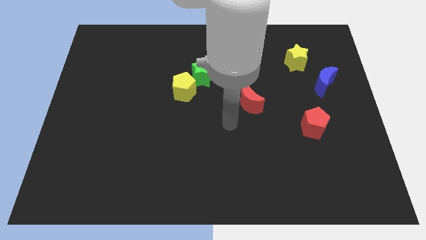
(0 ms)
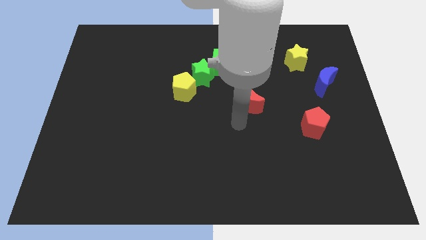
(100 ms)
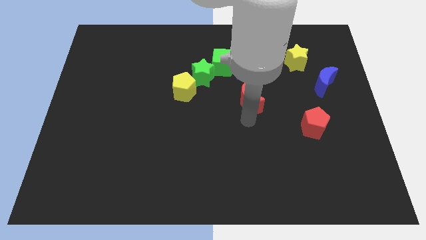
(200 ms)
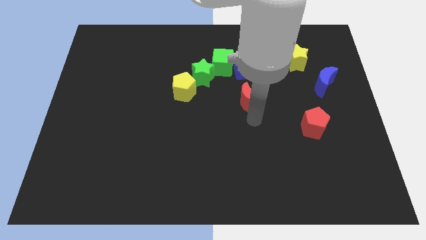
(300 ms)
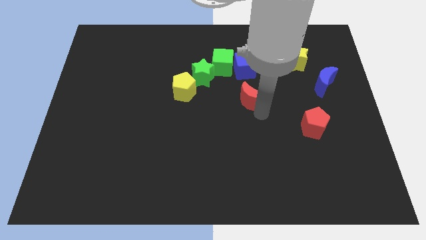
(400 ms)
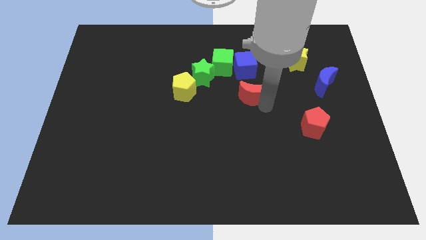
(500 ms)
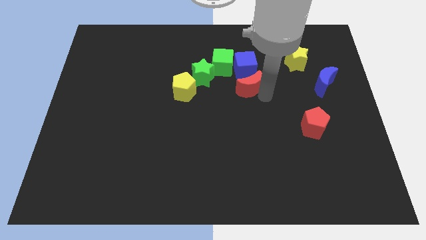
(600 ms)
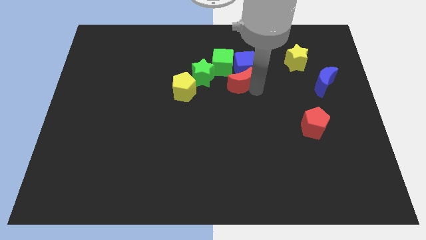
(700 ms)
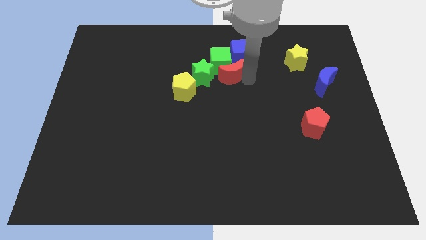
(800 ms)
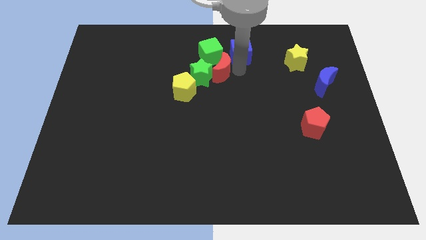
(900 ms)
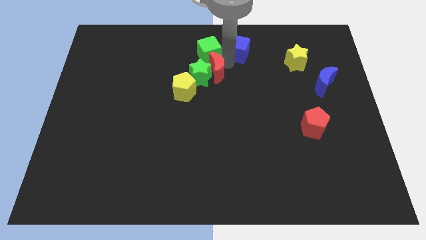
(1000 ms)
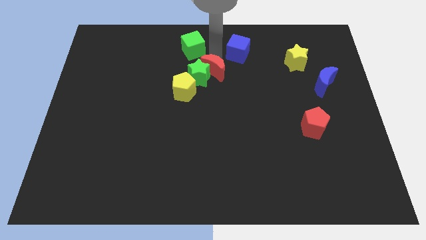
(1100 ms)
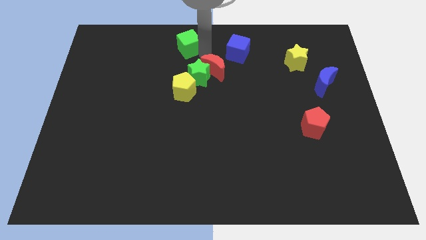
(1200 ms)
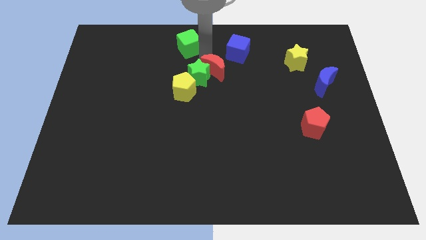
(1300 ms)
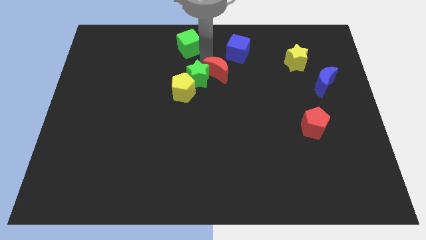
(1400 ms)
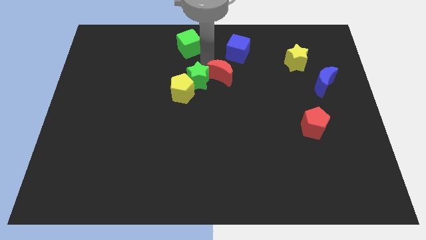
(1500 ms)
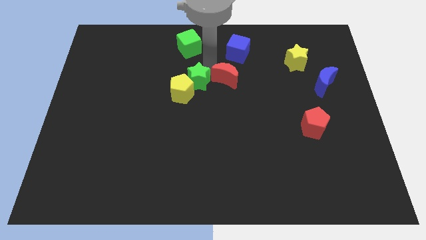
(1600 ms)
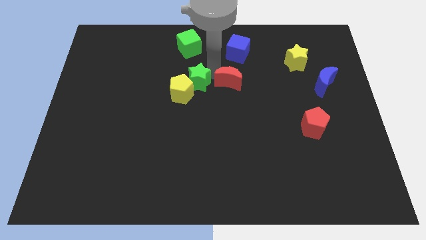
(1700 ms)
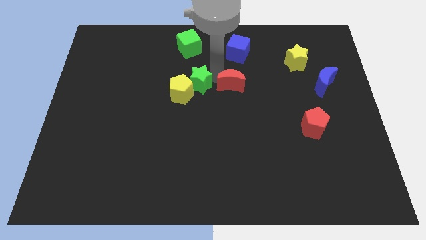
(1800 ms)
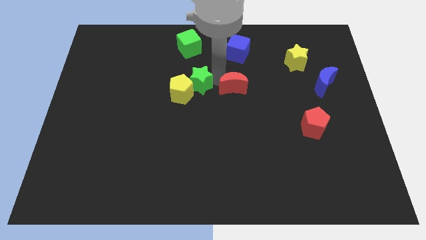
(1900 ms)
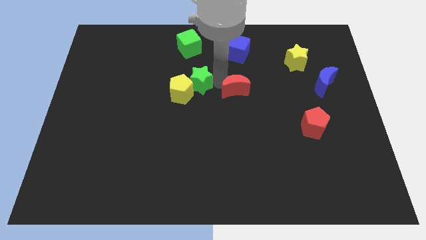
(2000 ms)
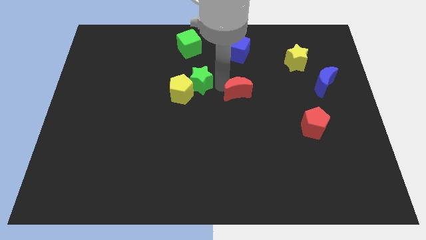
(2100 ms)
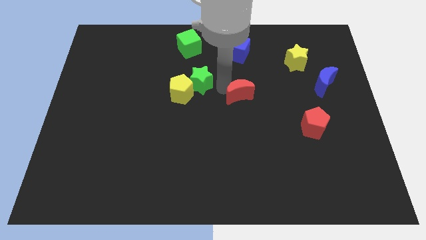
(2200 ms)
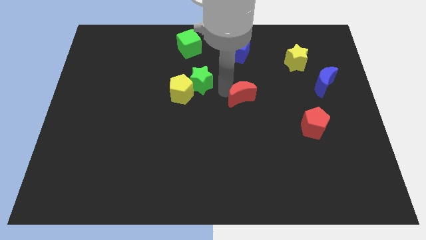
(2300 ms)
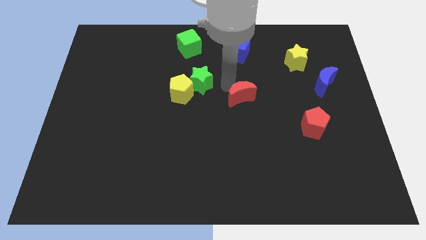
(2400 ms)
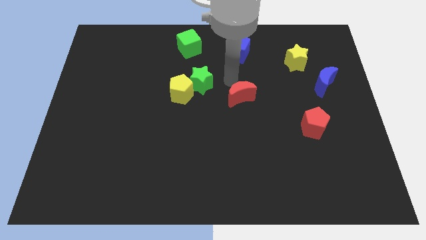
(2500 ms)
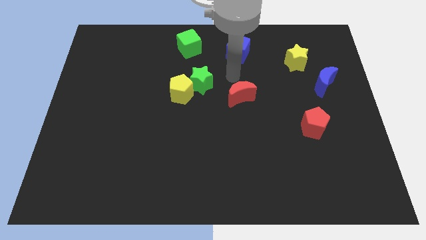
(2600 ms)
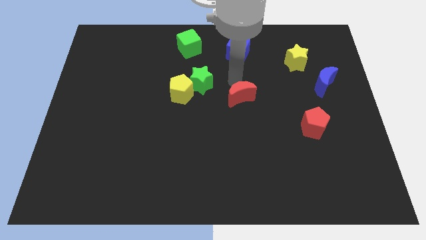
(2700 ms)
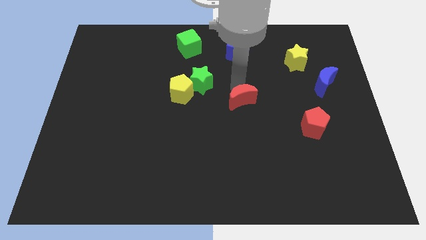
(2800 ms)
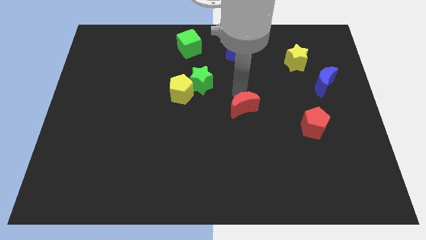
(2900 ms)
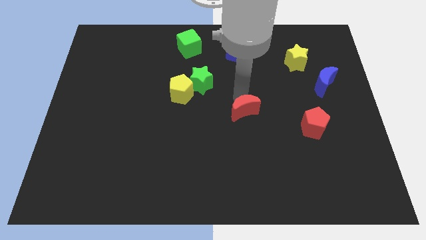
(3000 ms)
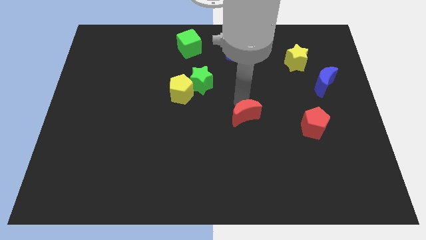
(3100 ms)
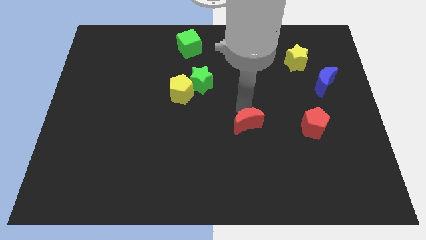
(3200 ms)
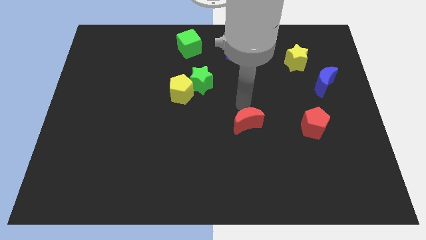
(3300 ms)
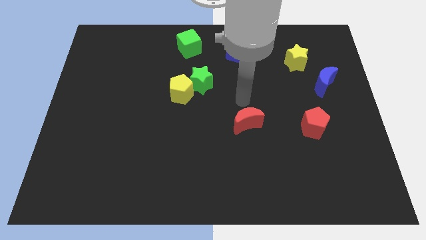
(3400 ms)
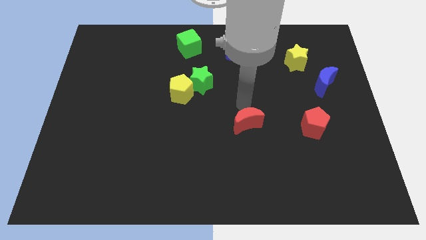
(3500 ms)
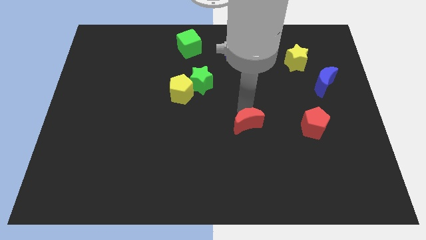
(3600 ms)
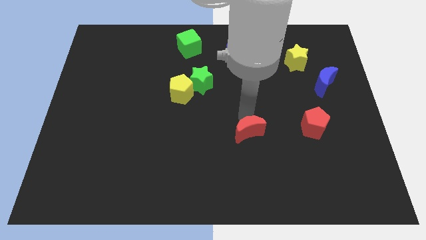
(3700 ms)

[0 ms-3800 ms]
slide the red moon a little down

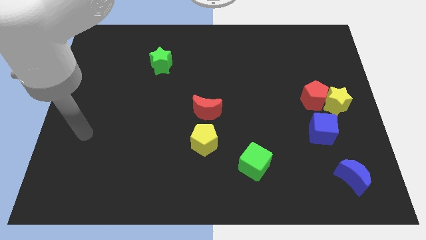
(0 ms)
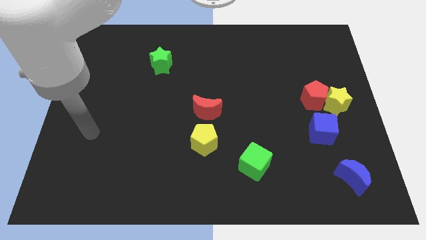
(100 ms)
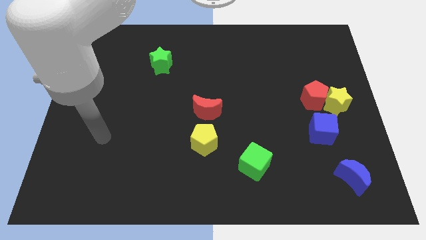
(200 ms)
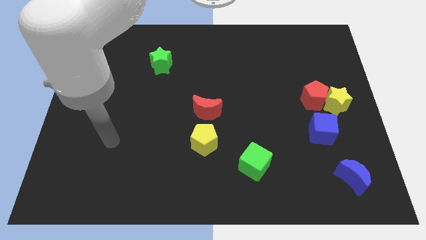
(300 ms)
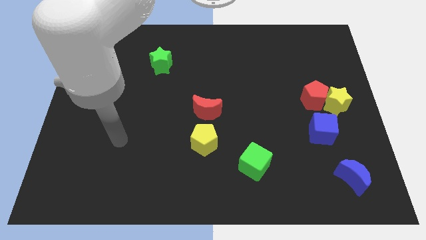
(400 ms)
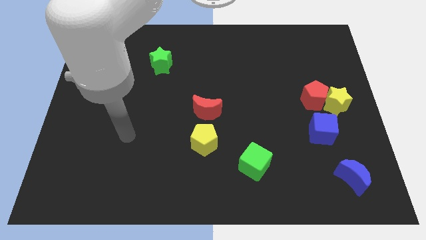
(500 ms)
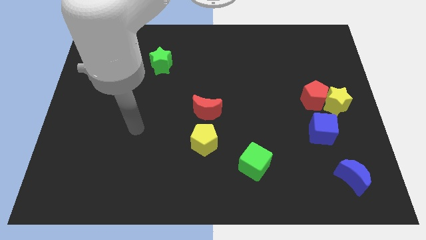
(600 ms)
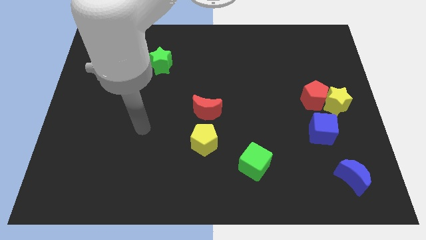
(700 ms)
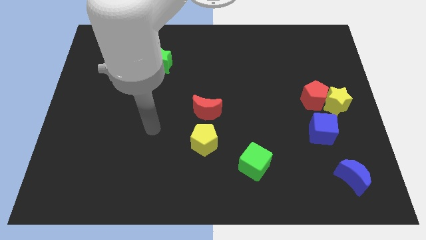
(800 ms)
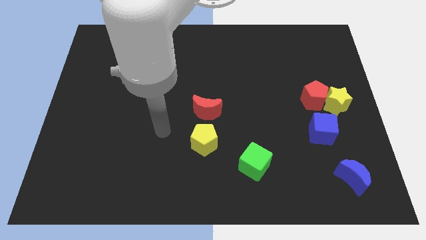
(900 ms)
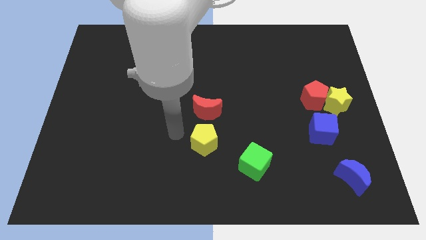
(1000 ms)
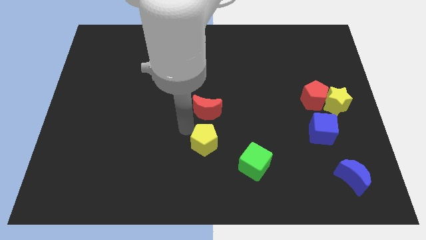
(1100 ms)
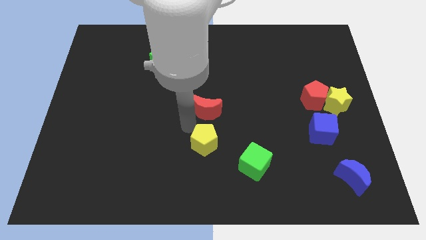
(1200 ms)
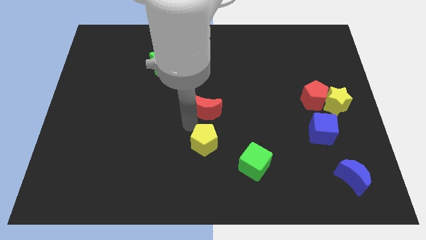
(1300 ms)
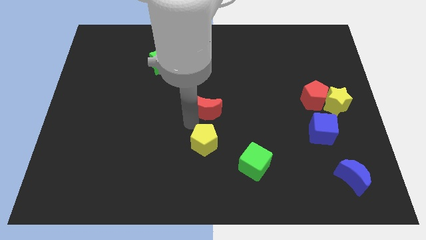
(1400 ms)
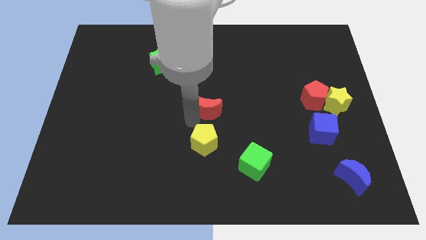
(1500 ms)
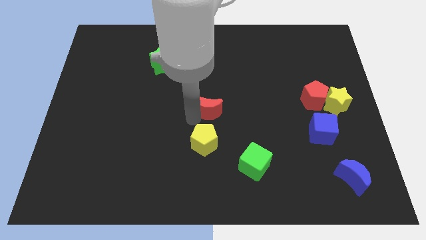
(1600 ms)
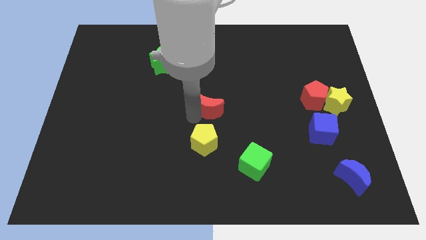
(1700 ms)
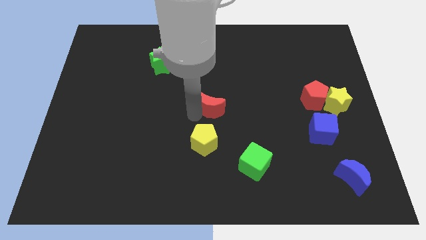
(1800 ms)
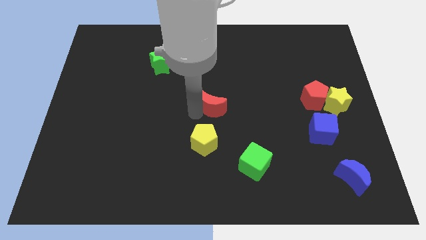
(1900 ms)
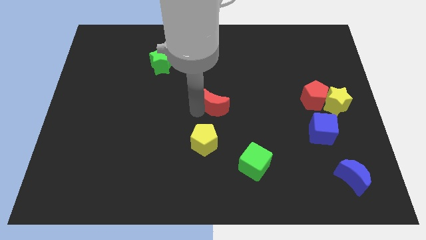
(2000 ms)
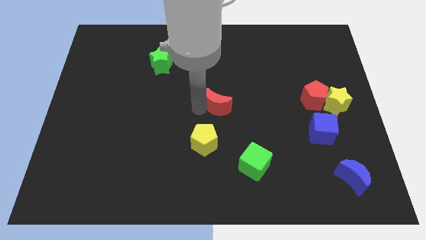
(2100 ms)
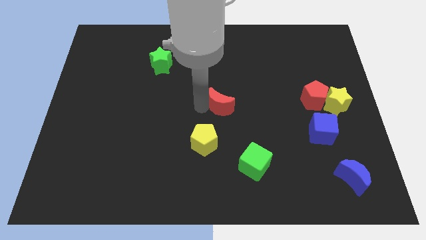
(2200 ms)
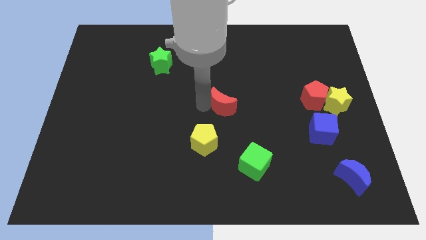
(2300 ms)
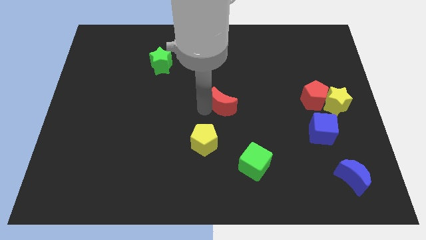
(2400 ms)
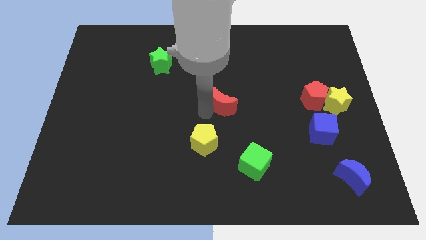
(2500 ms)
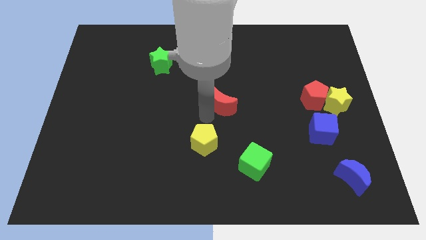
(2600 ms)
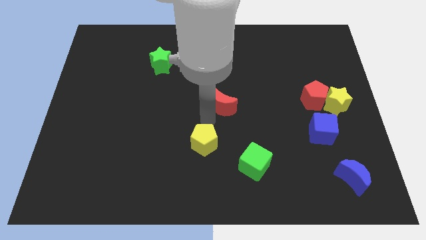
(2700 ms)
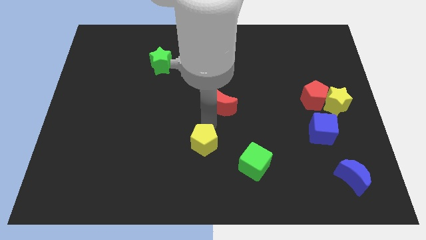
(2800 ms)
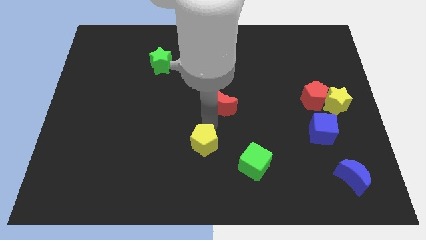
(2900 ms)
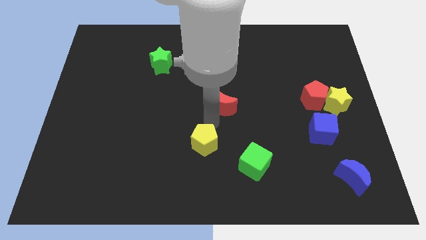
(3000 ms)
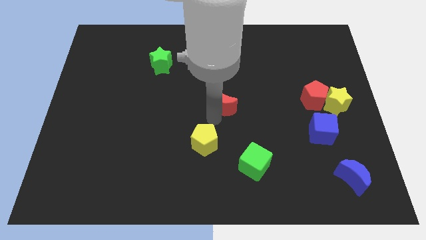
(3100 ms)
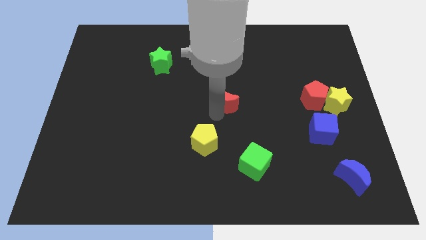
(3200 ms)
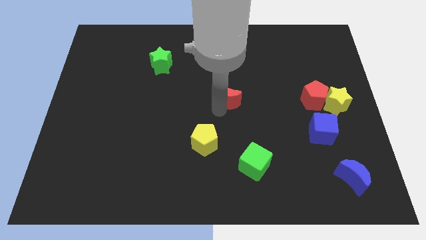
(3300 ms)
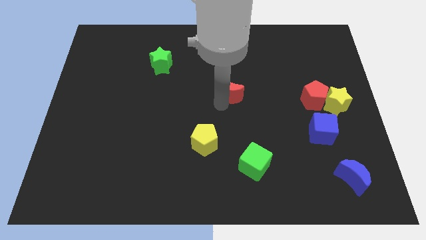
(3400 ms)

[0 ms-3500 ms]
slide the red moon a little diagonally upwards and to the right

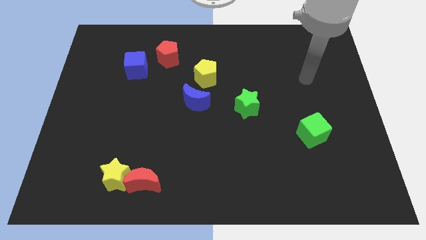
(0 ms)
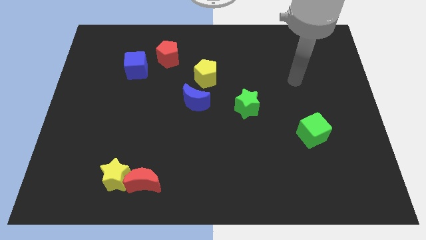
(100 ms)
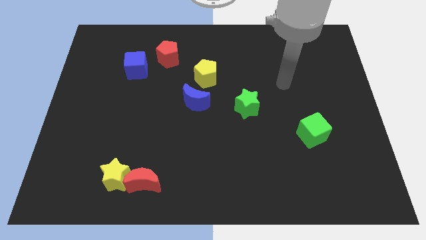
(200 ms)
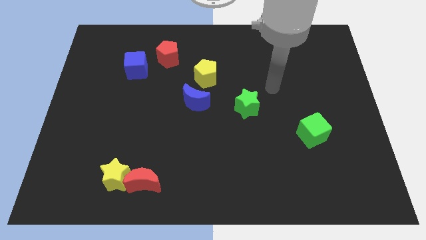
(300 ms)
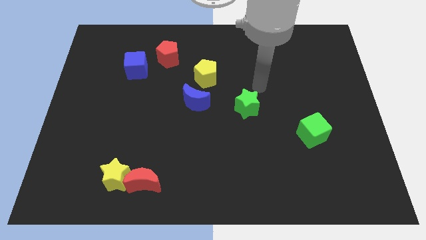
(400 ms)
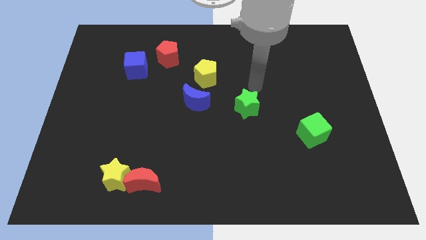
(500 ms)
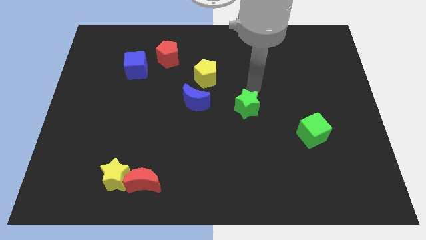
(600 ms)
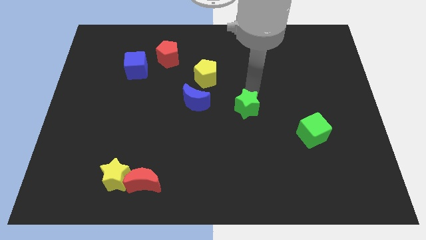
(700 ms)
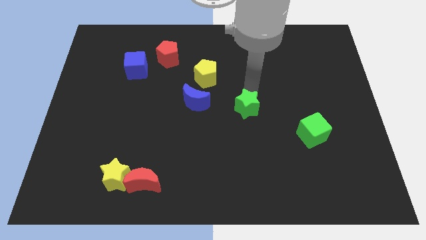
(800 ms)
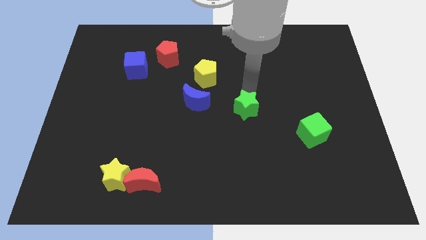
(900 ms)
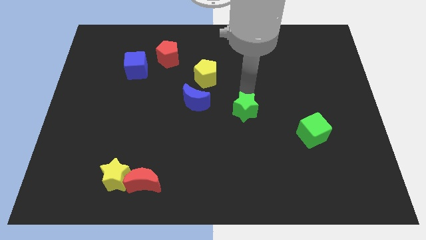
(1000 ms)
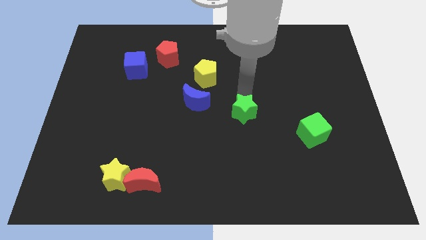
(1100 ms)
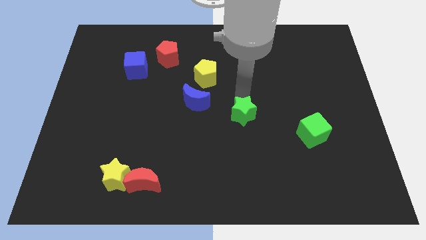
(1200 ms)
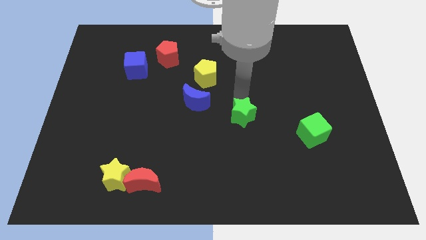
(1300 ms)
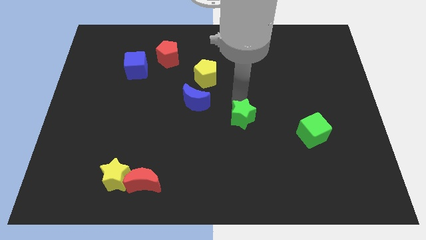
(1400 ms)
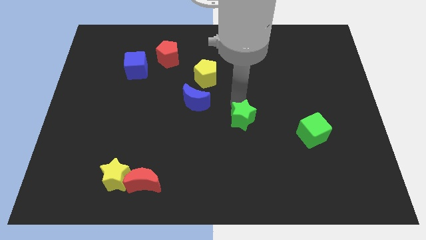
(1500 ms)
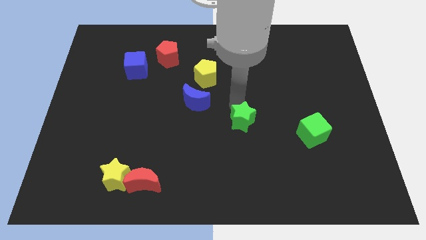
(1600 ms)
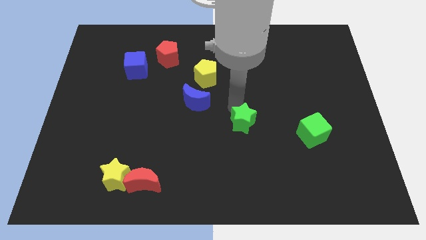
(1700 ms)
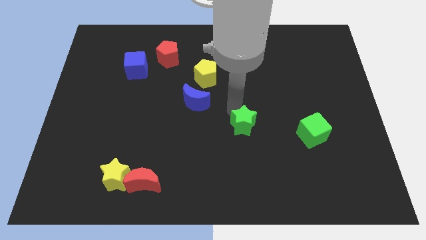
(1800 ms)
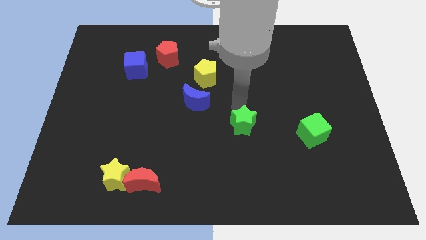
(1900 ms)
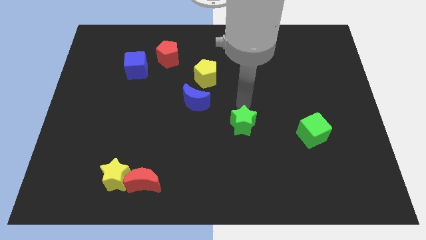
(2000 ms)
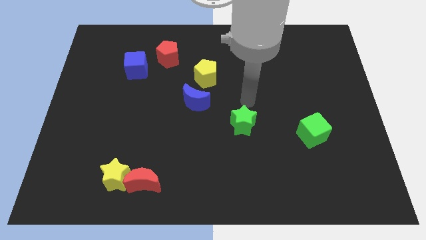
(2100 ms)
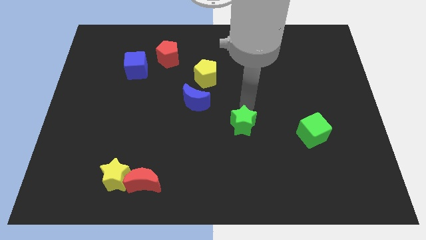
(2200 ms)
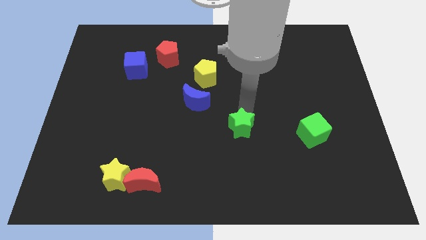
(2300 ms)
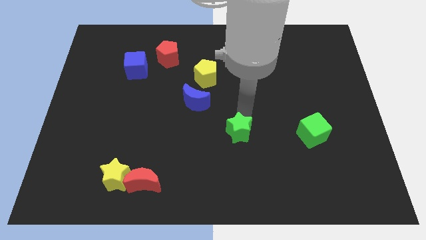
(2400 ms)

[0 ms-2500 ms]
move the green star downwards a bit
